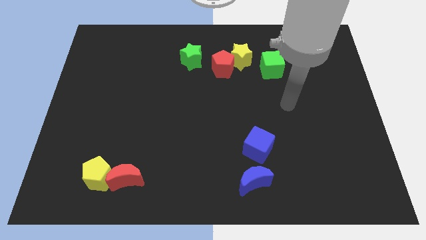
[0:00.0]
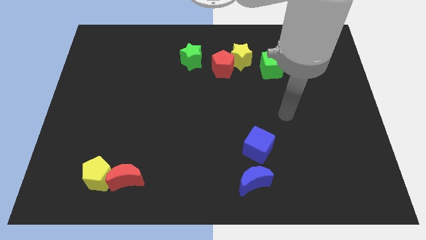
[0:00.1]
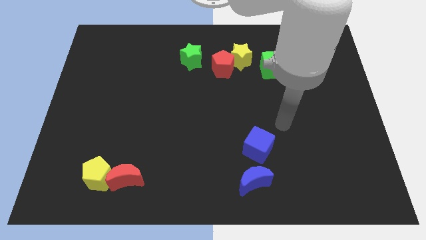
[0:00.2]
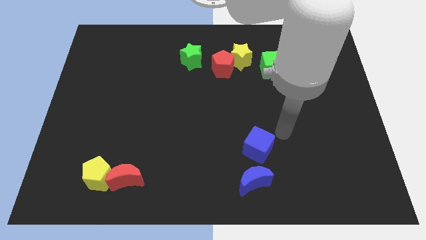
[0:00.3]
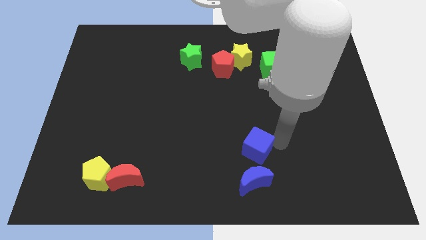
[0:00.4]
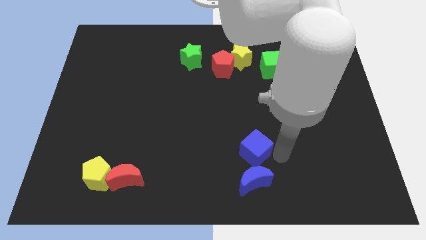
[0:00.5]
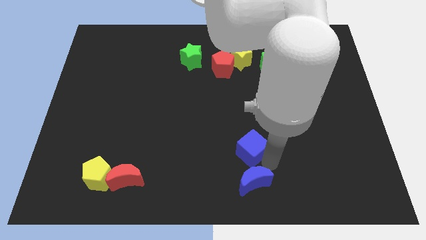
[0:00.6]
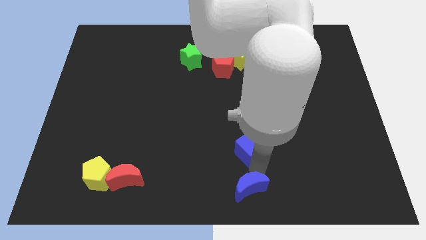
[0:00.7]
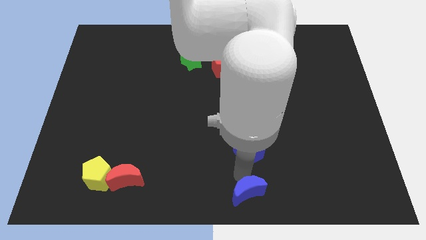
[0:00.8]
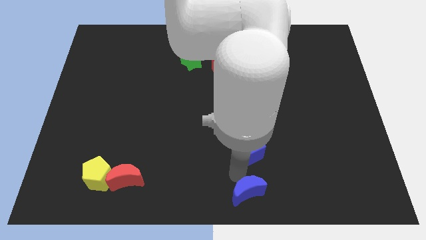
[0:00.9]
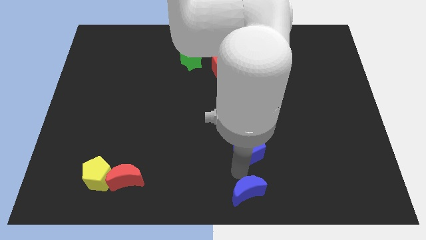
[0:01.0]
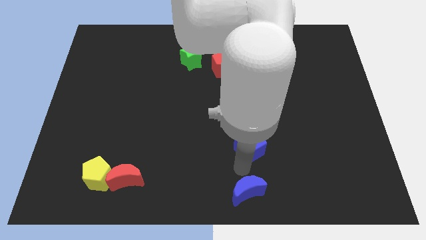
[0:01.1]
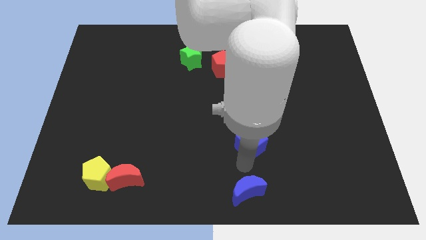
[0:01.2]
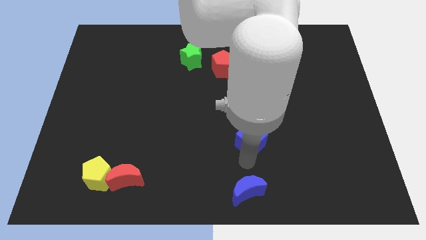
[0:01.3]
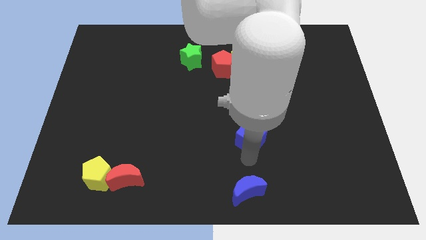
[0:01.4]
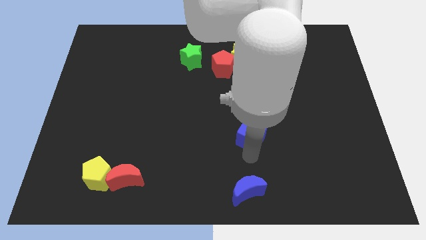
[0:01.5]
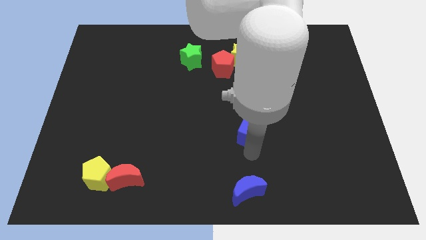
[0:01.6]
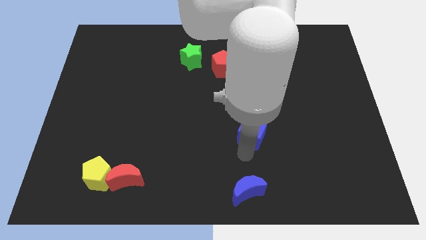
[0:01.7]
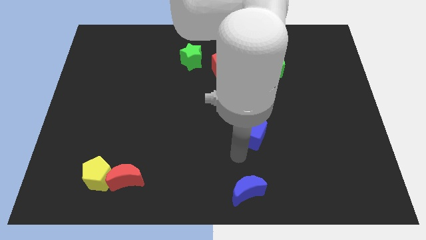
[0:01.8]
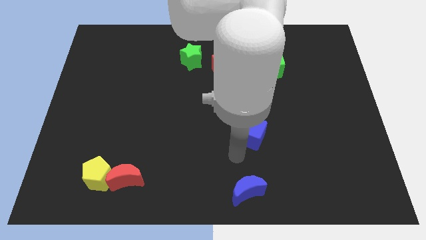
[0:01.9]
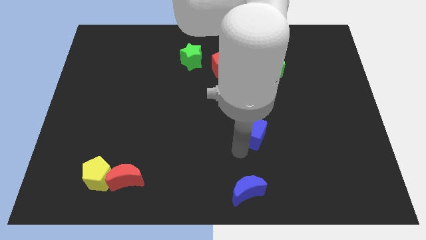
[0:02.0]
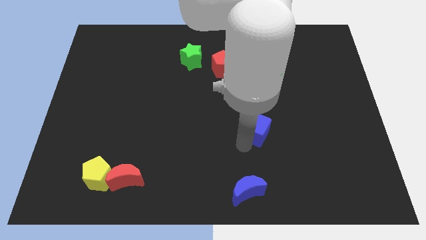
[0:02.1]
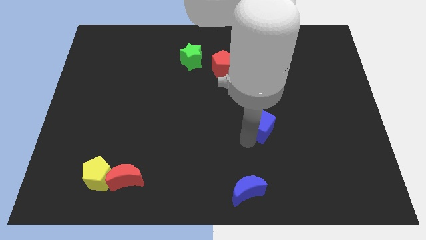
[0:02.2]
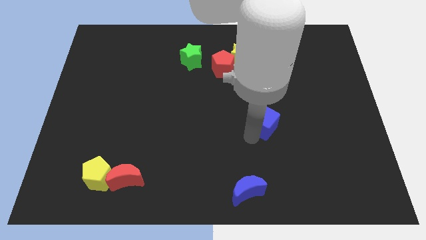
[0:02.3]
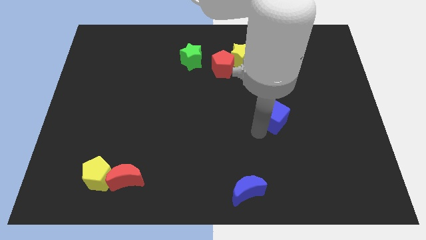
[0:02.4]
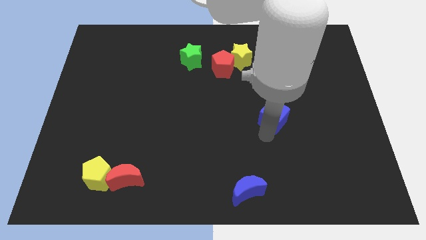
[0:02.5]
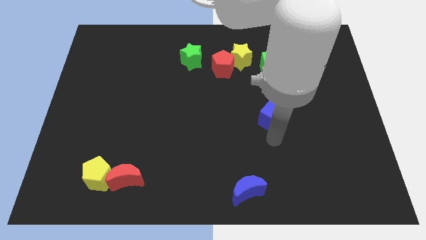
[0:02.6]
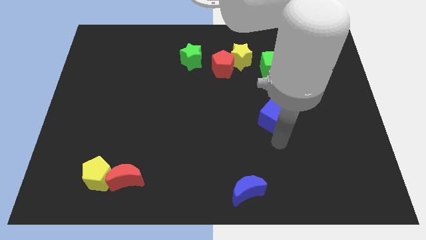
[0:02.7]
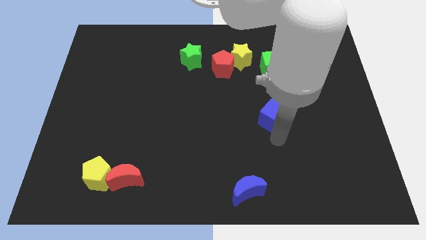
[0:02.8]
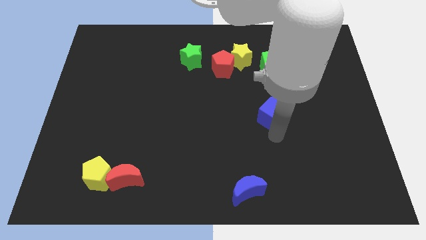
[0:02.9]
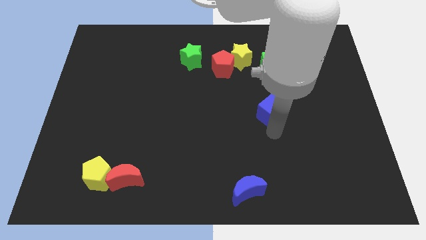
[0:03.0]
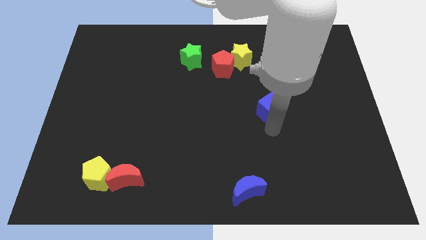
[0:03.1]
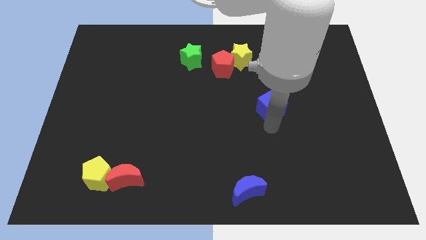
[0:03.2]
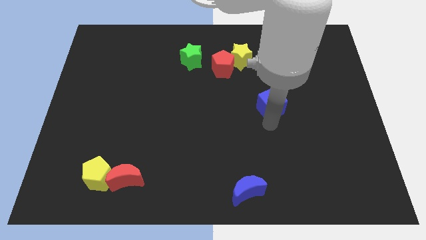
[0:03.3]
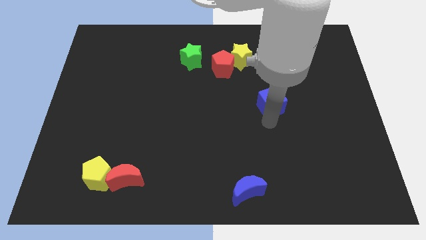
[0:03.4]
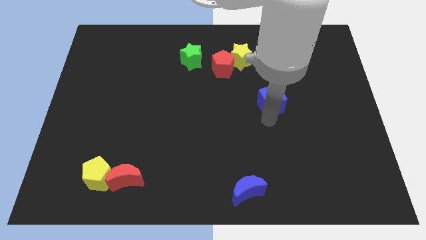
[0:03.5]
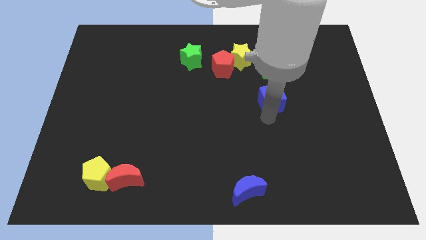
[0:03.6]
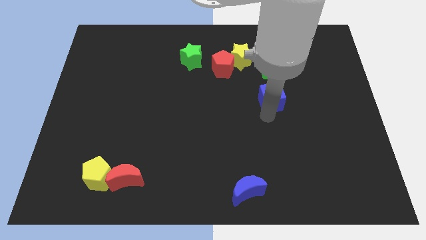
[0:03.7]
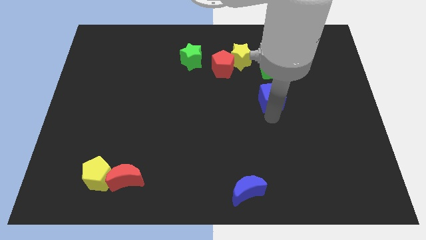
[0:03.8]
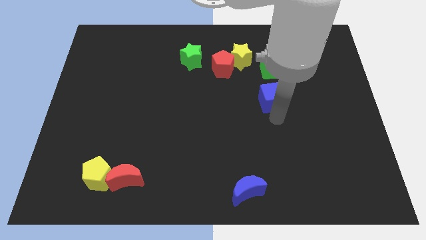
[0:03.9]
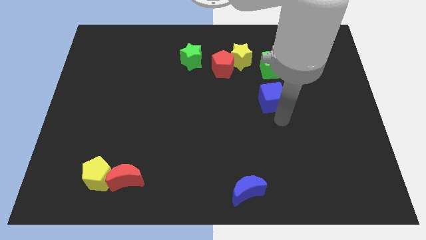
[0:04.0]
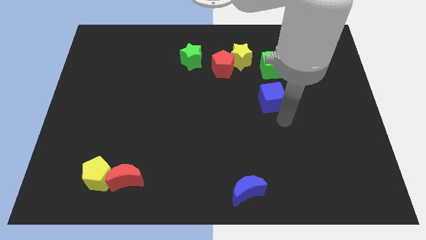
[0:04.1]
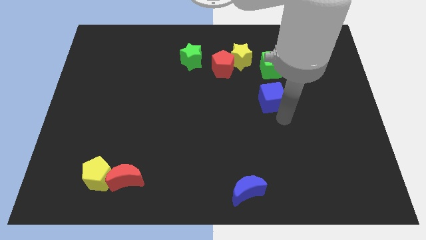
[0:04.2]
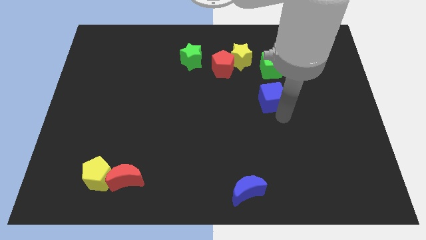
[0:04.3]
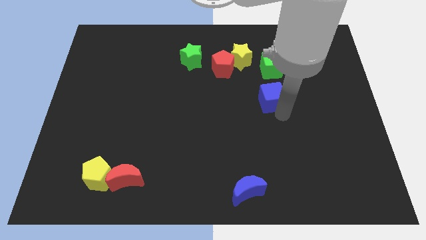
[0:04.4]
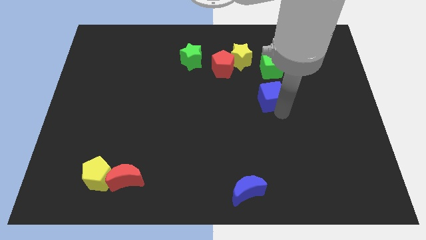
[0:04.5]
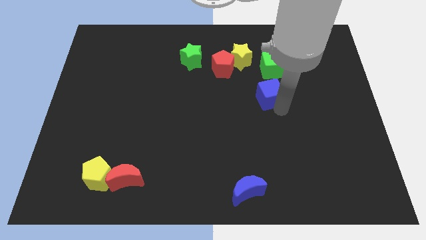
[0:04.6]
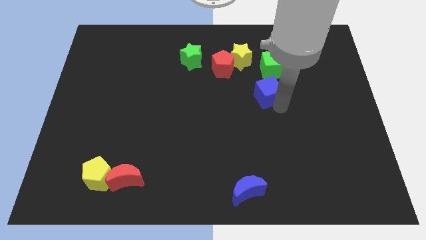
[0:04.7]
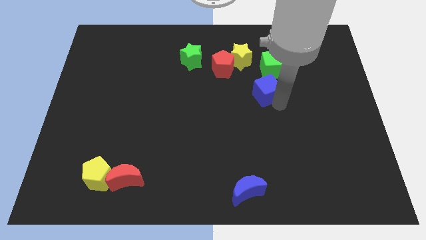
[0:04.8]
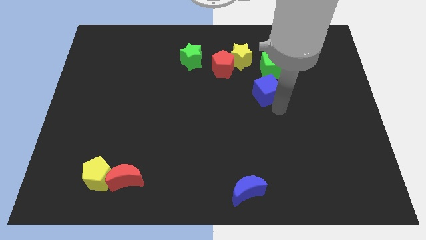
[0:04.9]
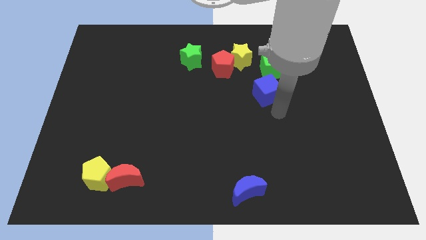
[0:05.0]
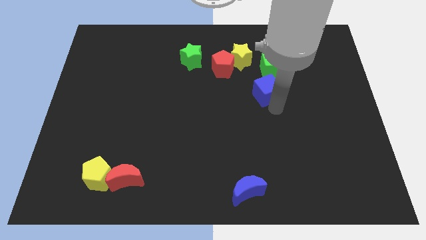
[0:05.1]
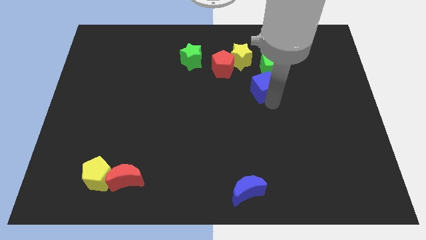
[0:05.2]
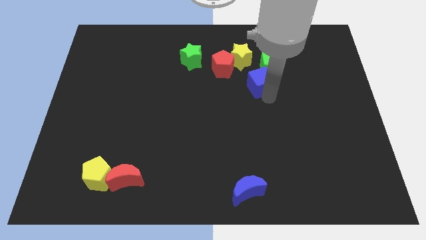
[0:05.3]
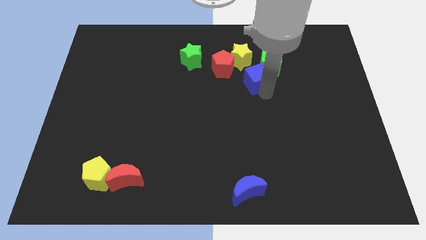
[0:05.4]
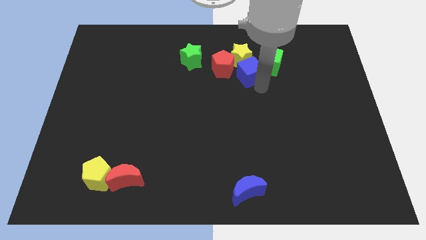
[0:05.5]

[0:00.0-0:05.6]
slide the blue cube towards the yellow star

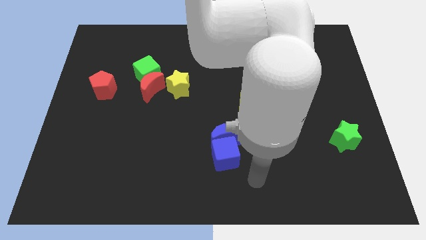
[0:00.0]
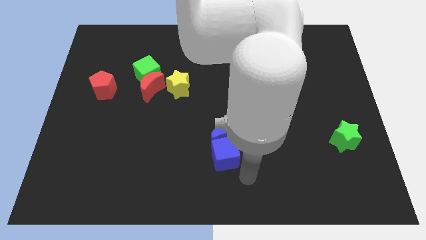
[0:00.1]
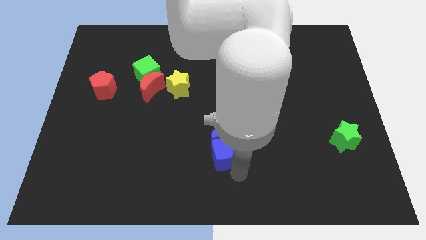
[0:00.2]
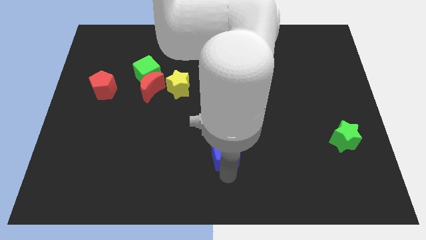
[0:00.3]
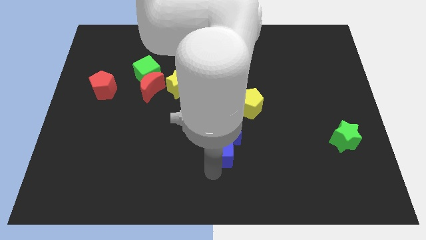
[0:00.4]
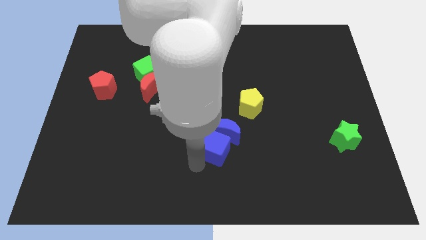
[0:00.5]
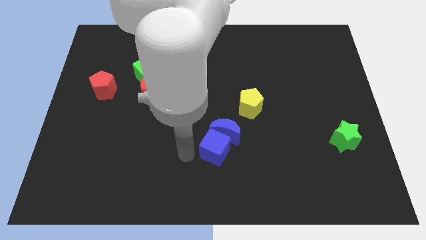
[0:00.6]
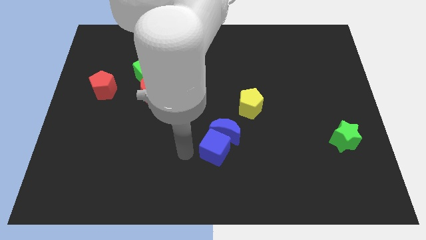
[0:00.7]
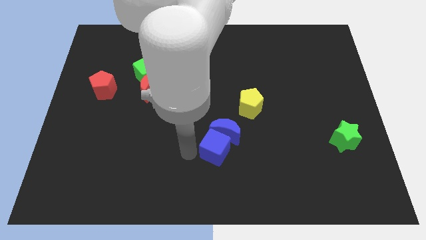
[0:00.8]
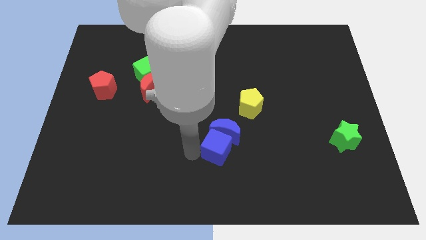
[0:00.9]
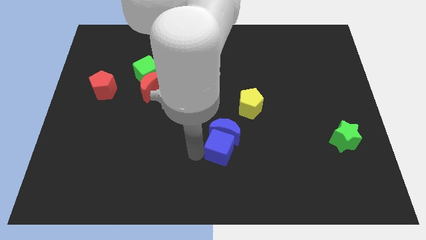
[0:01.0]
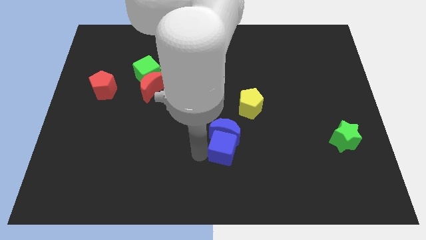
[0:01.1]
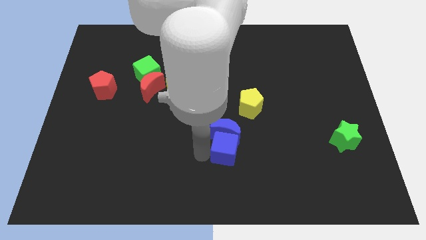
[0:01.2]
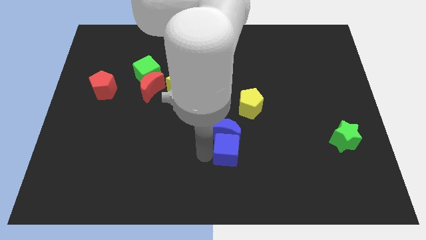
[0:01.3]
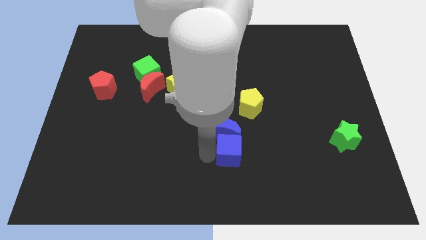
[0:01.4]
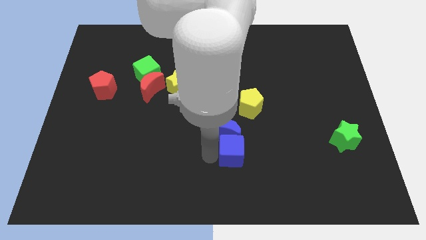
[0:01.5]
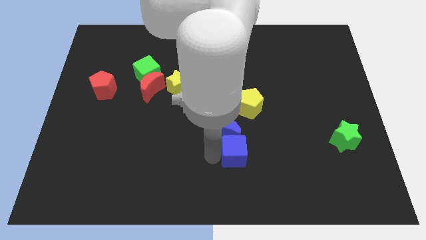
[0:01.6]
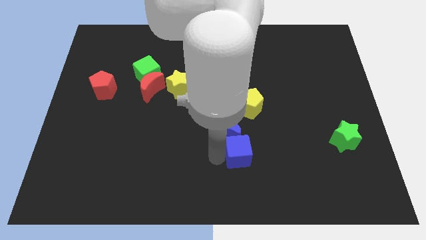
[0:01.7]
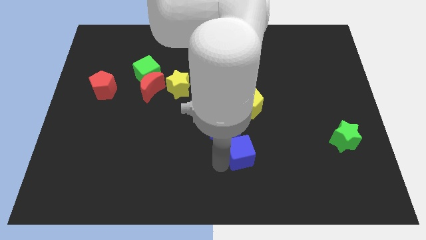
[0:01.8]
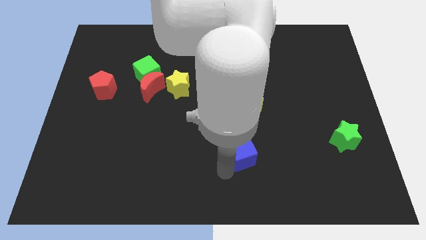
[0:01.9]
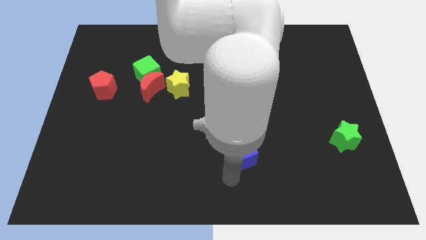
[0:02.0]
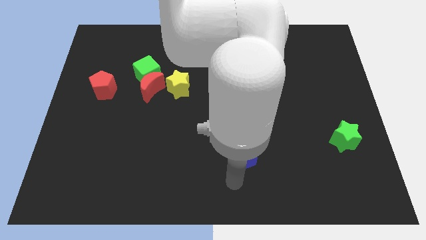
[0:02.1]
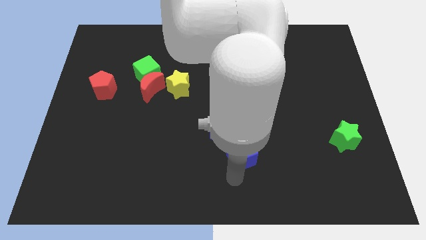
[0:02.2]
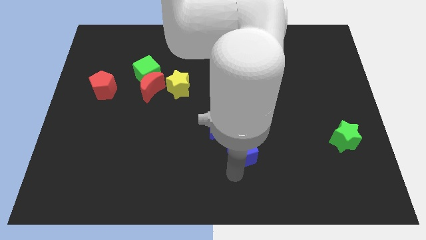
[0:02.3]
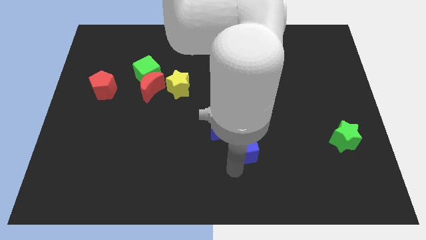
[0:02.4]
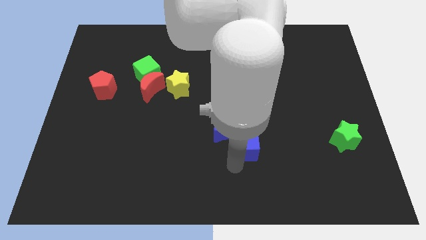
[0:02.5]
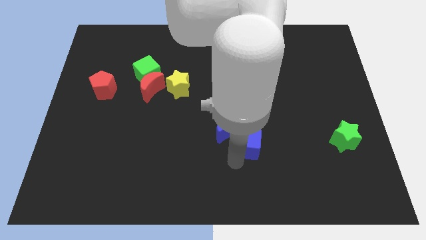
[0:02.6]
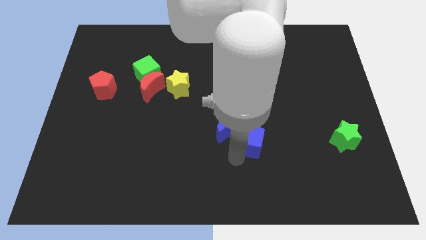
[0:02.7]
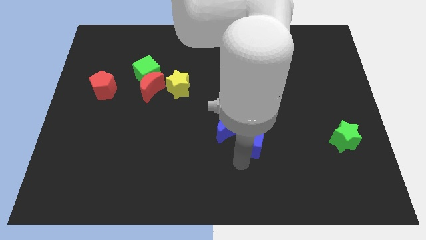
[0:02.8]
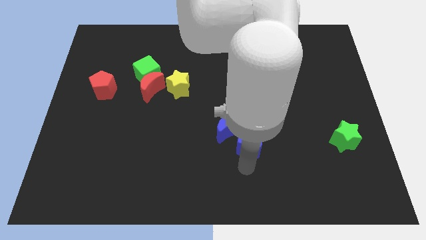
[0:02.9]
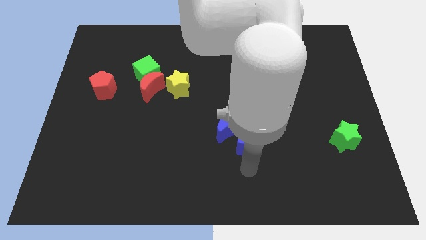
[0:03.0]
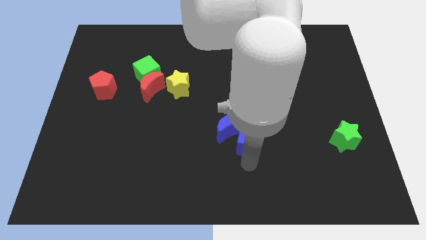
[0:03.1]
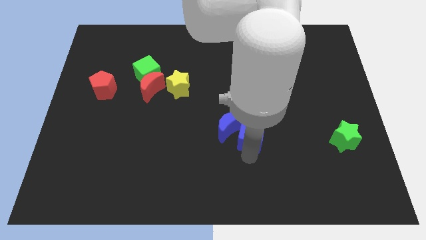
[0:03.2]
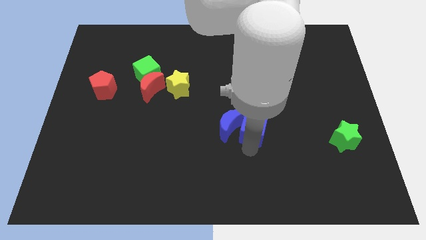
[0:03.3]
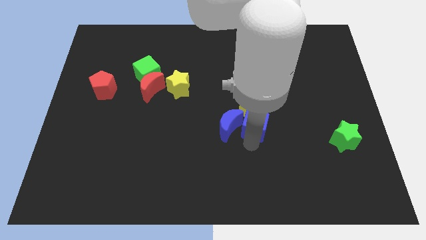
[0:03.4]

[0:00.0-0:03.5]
put the blue cube close to the yellow pentagon
